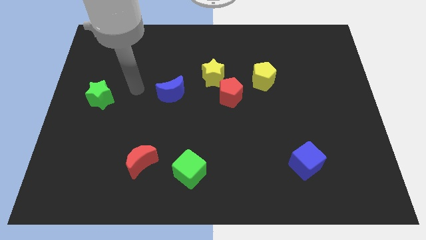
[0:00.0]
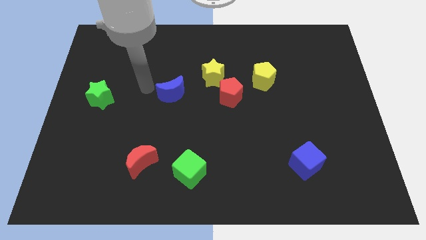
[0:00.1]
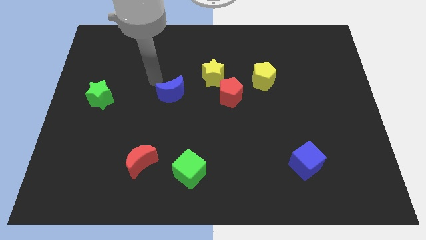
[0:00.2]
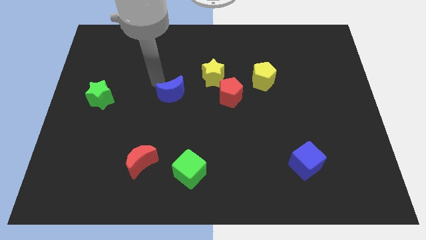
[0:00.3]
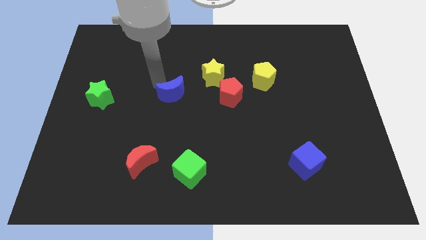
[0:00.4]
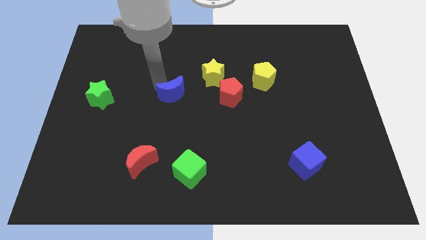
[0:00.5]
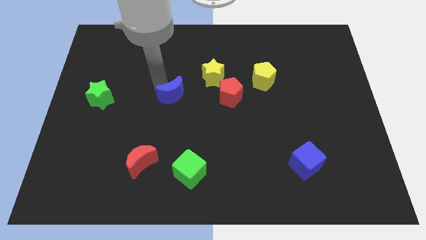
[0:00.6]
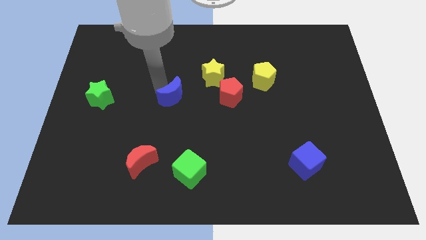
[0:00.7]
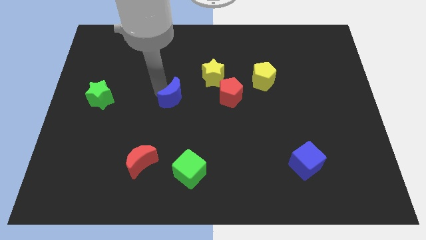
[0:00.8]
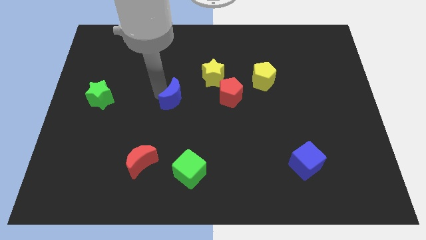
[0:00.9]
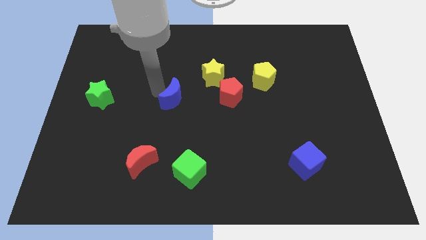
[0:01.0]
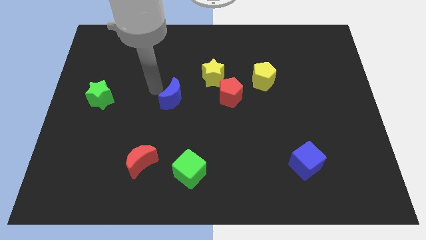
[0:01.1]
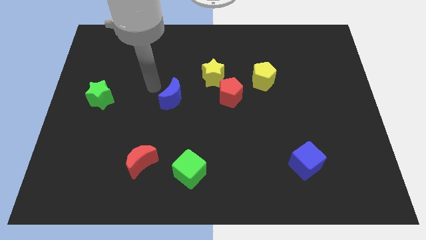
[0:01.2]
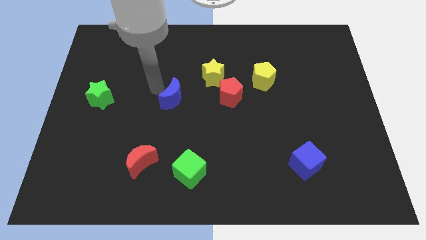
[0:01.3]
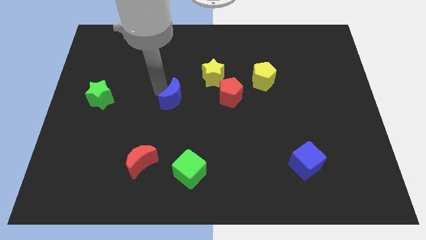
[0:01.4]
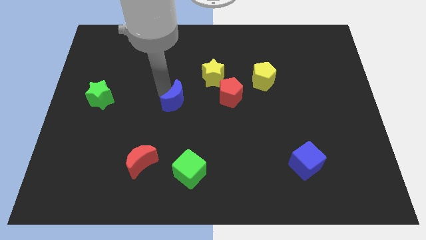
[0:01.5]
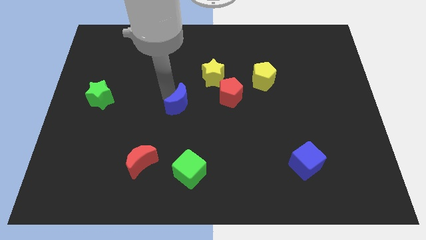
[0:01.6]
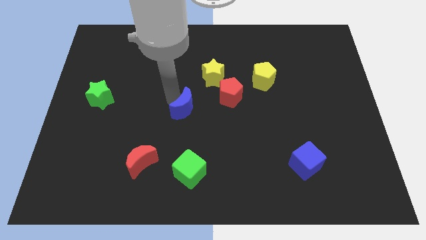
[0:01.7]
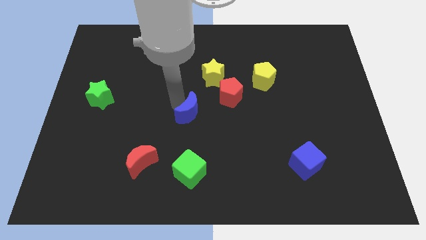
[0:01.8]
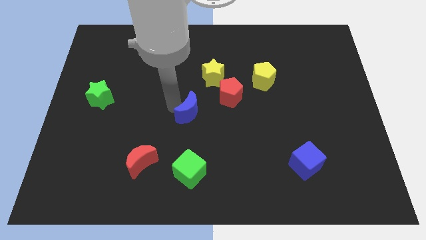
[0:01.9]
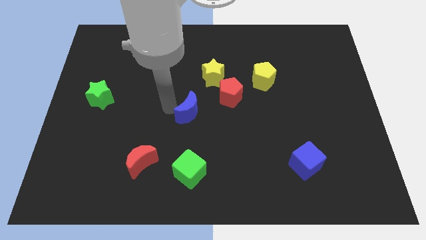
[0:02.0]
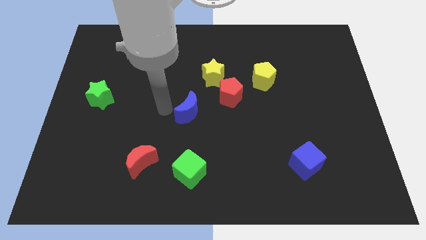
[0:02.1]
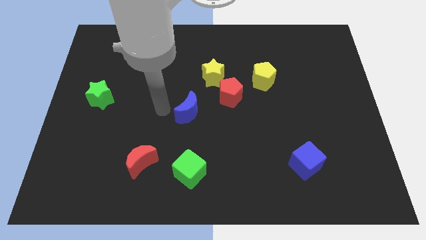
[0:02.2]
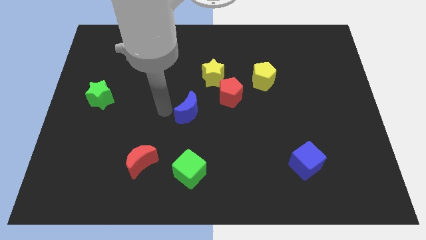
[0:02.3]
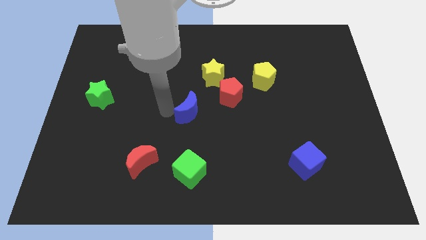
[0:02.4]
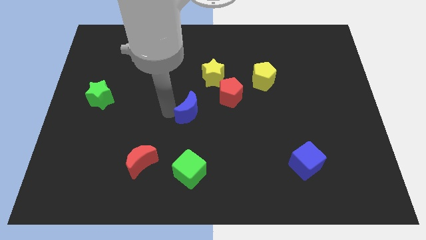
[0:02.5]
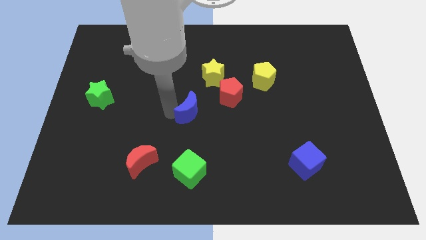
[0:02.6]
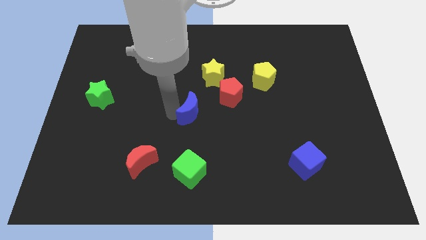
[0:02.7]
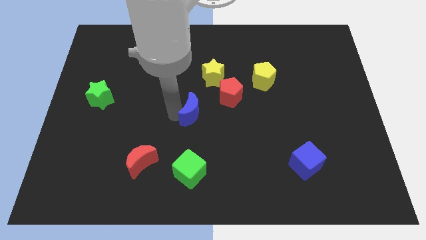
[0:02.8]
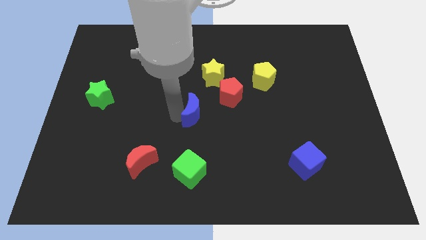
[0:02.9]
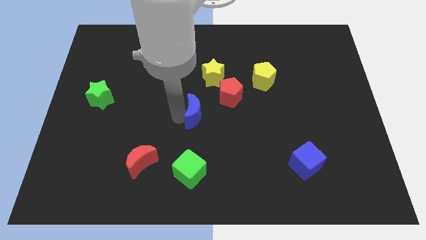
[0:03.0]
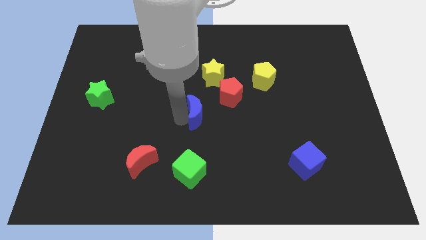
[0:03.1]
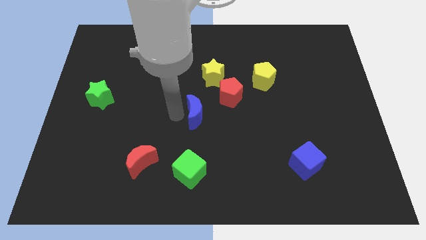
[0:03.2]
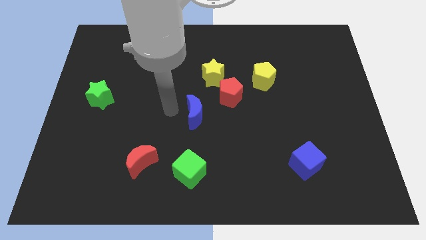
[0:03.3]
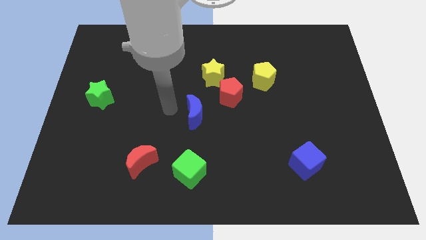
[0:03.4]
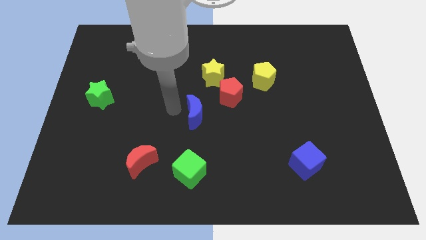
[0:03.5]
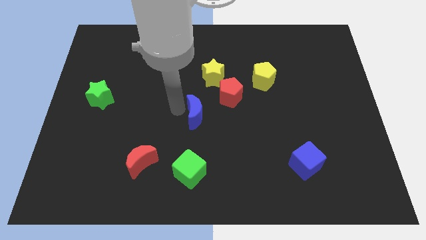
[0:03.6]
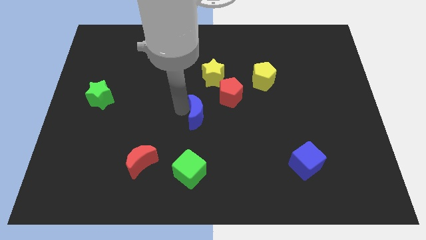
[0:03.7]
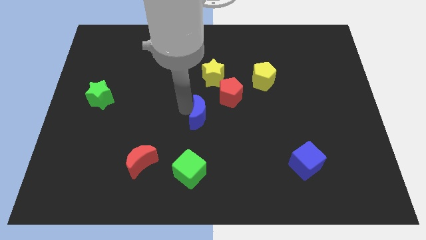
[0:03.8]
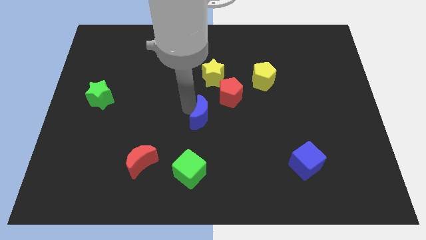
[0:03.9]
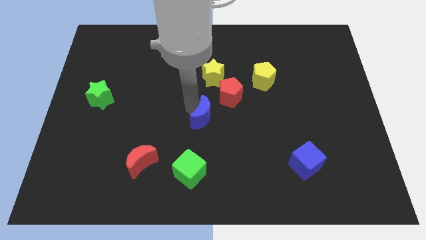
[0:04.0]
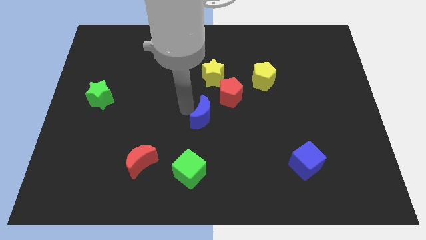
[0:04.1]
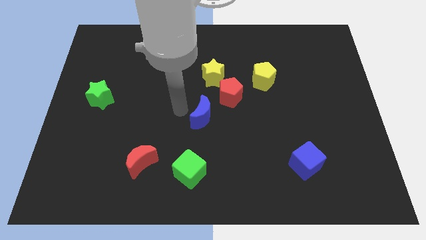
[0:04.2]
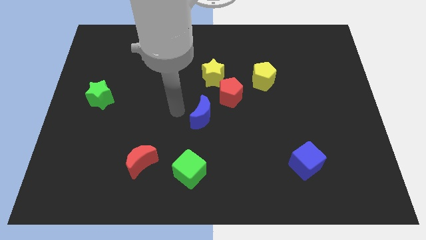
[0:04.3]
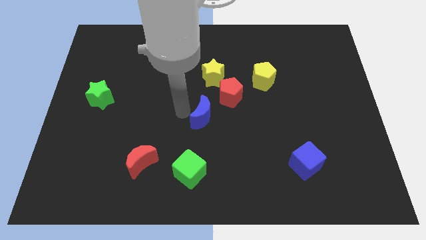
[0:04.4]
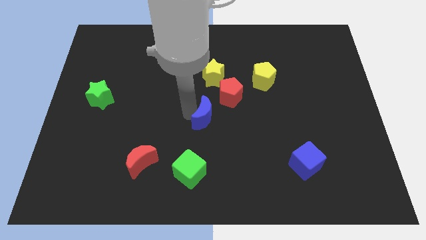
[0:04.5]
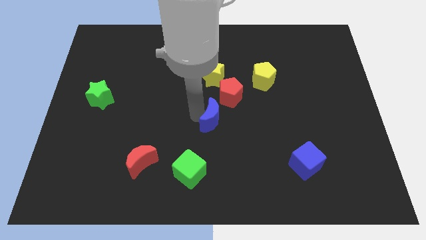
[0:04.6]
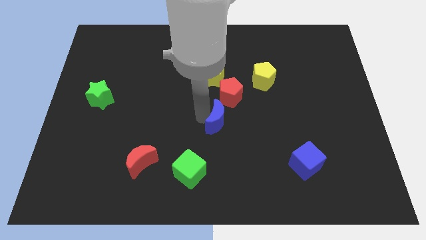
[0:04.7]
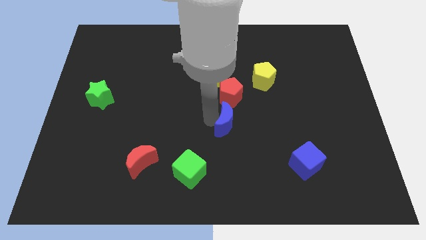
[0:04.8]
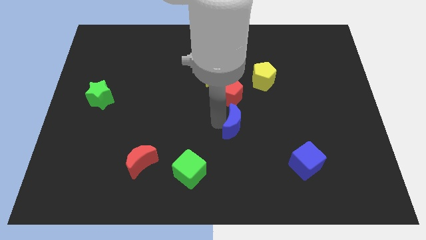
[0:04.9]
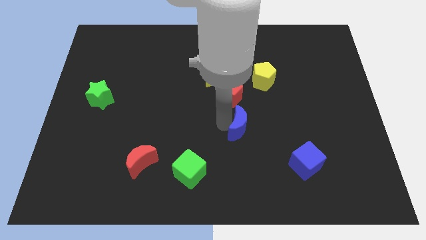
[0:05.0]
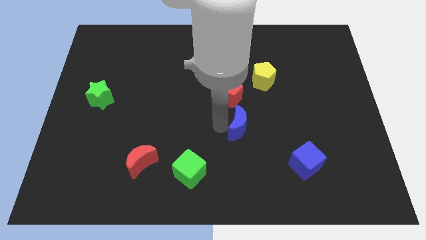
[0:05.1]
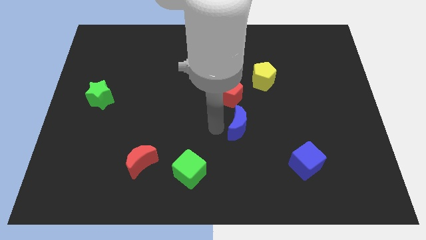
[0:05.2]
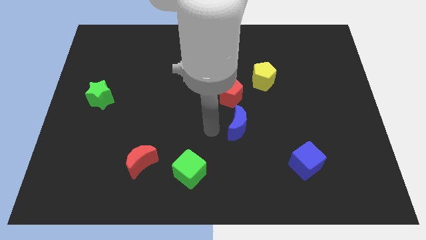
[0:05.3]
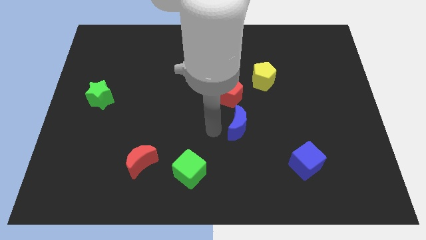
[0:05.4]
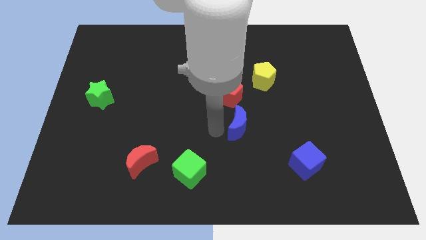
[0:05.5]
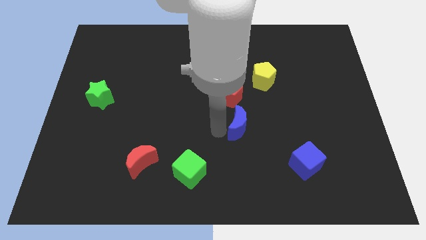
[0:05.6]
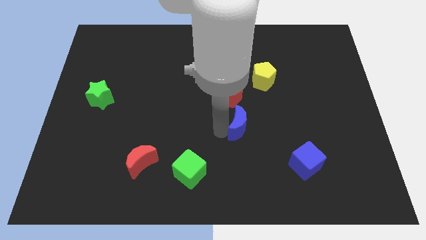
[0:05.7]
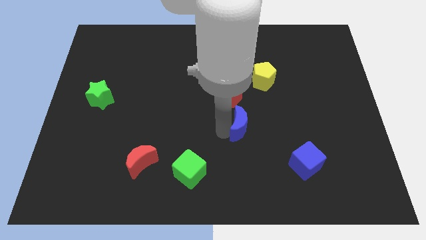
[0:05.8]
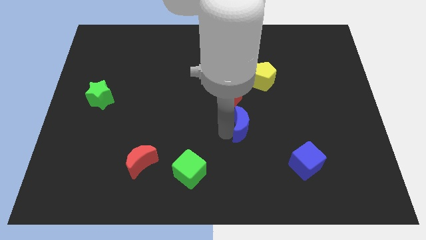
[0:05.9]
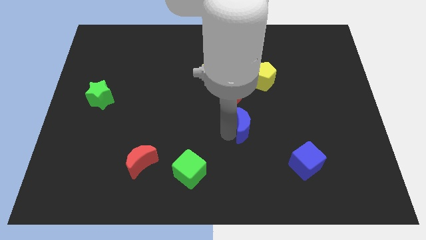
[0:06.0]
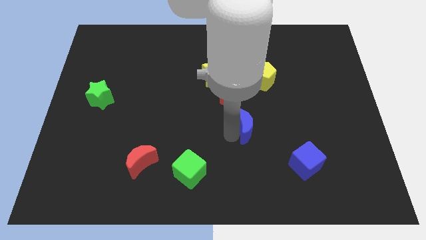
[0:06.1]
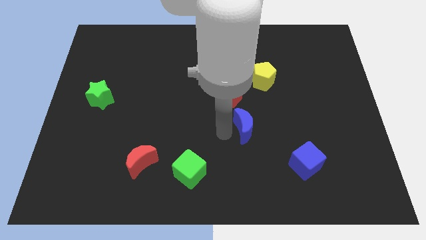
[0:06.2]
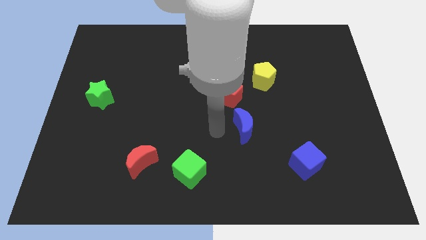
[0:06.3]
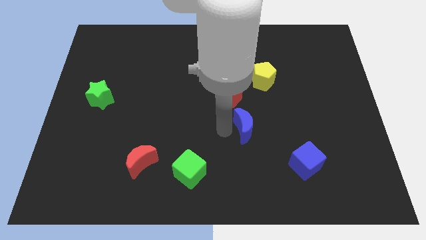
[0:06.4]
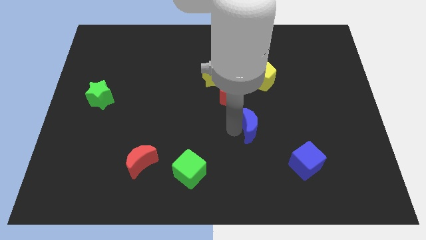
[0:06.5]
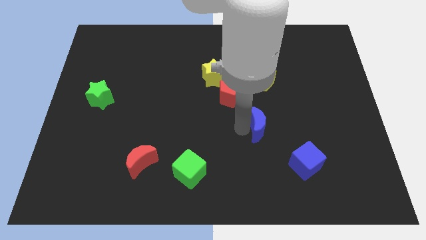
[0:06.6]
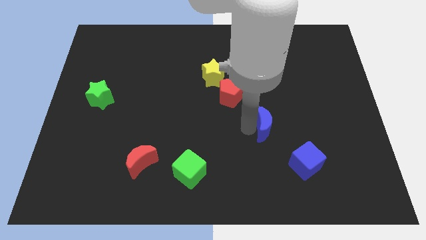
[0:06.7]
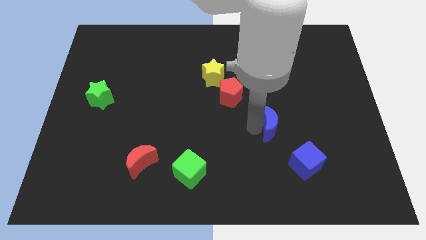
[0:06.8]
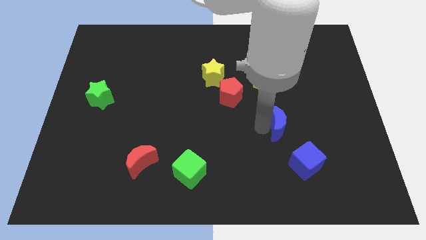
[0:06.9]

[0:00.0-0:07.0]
put the blue moon to the top of the blue cube
